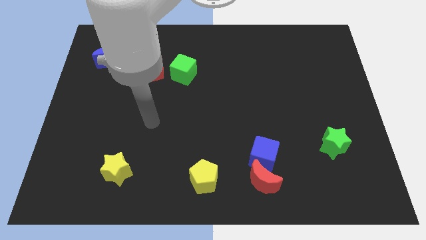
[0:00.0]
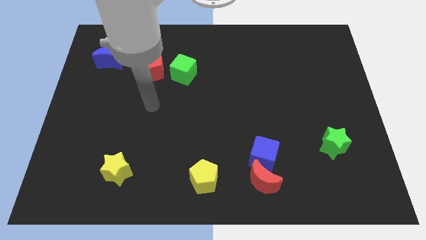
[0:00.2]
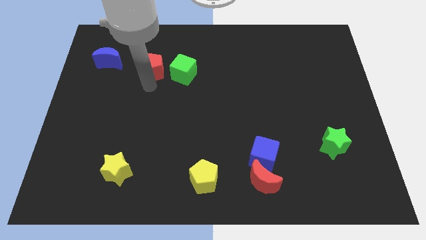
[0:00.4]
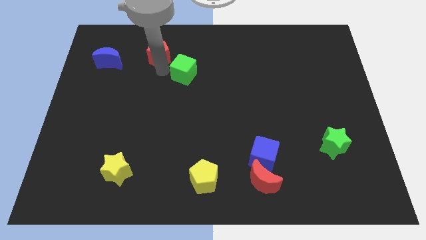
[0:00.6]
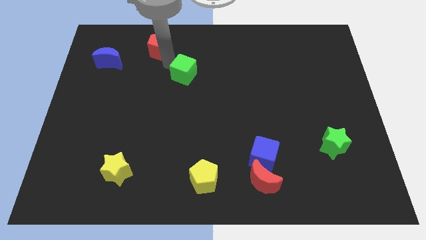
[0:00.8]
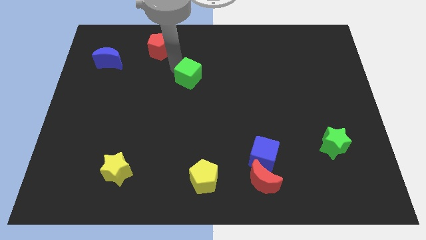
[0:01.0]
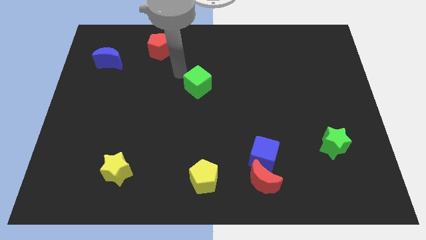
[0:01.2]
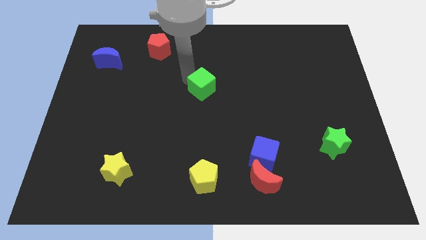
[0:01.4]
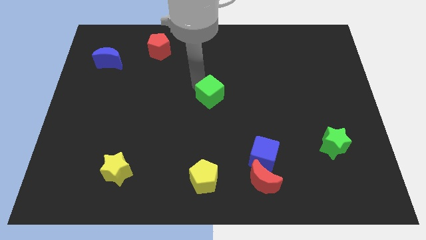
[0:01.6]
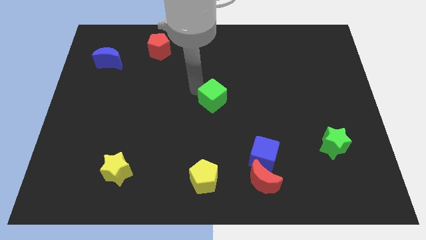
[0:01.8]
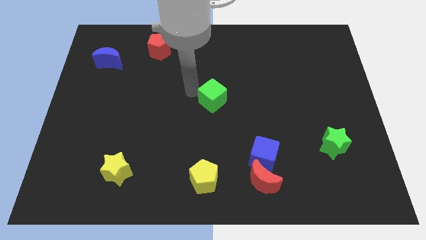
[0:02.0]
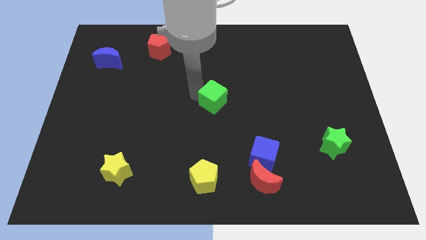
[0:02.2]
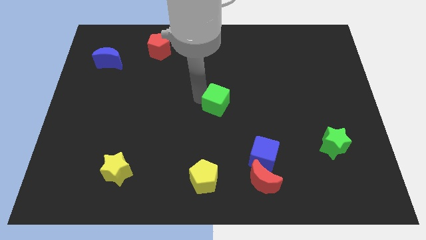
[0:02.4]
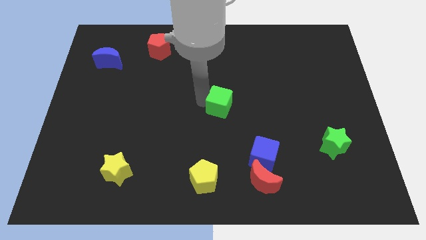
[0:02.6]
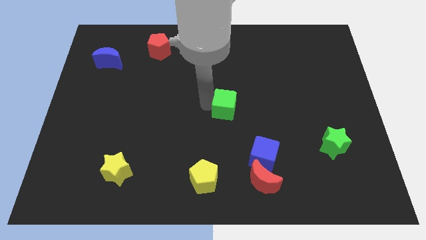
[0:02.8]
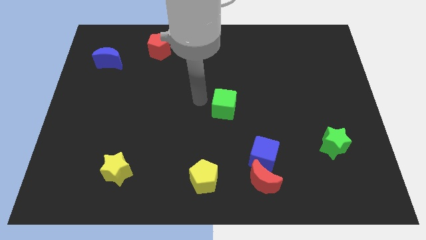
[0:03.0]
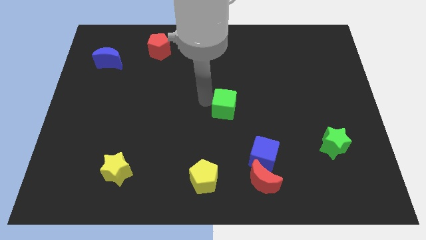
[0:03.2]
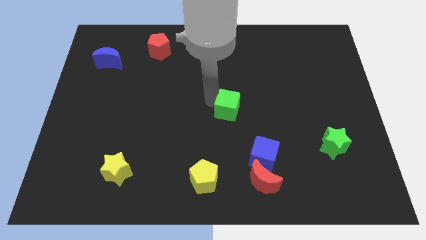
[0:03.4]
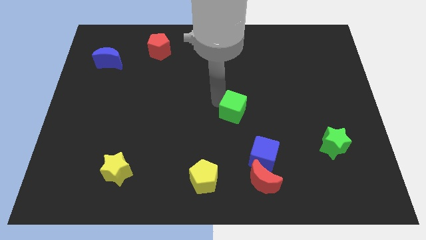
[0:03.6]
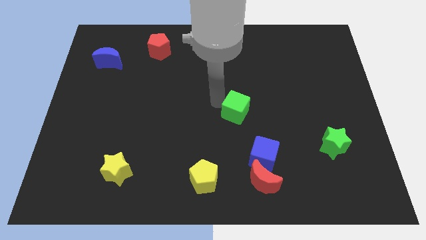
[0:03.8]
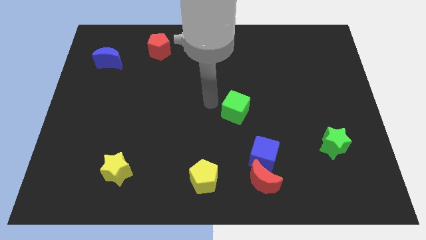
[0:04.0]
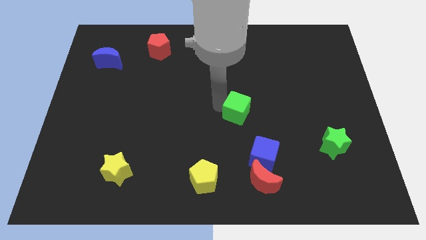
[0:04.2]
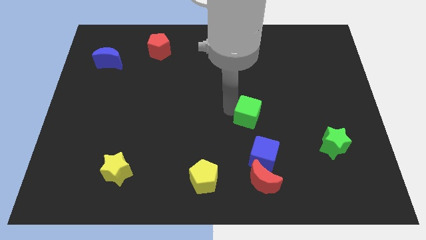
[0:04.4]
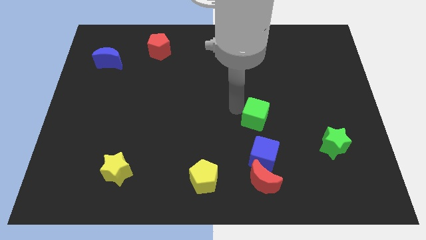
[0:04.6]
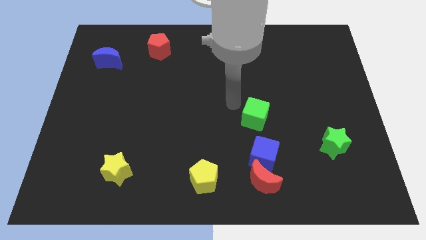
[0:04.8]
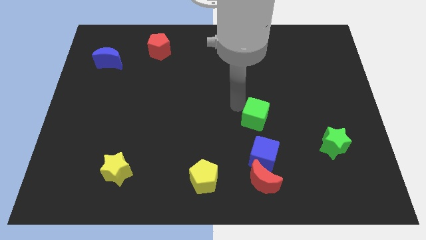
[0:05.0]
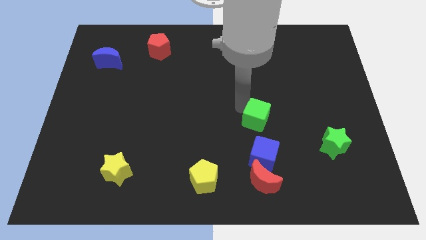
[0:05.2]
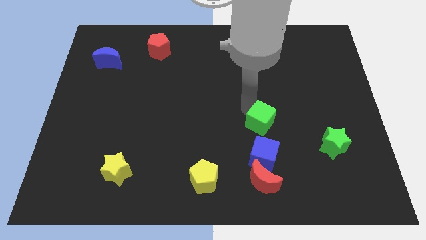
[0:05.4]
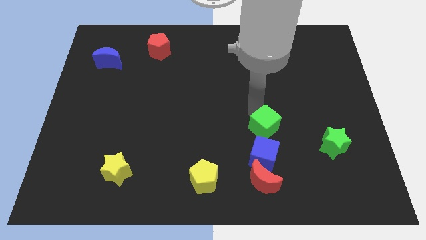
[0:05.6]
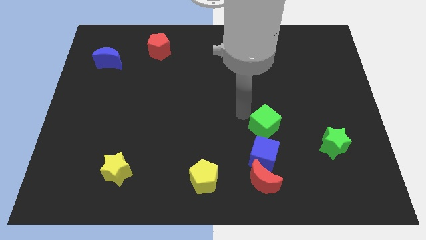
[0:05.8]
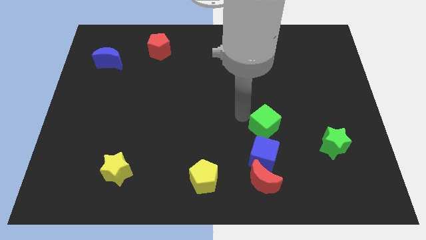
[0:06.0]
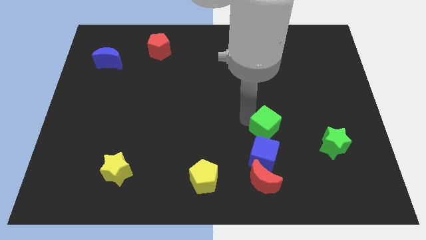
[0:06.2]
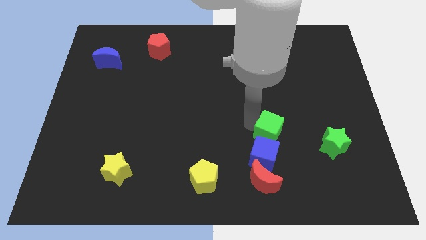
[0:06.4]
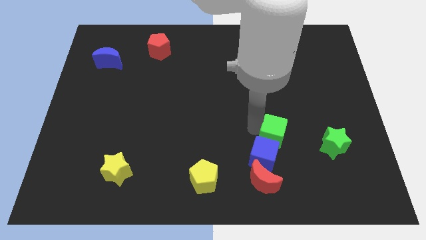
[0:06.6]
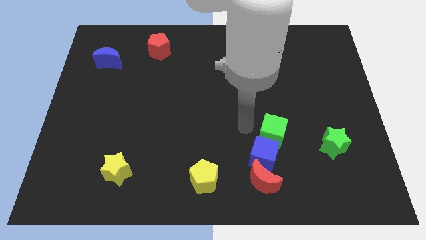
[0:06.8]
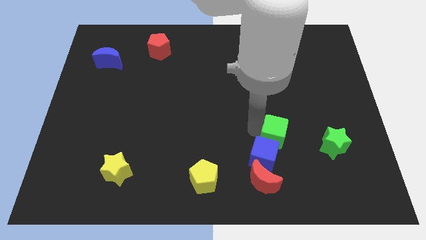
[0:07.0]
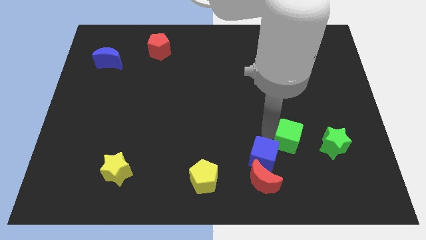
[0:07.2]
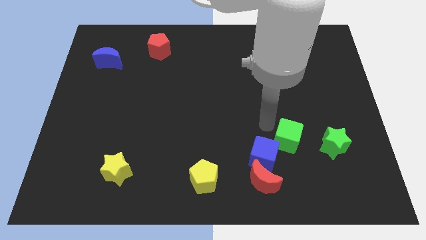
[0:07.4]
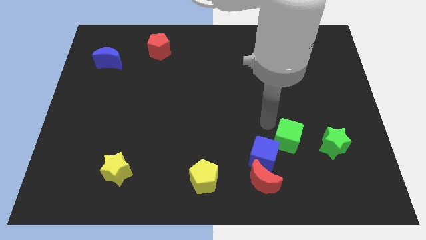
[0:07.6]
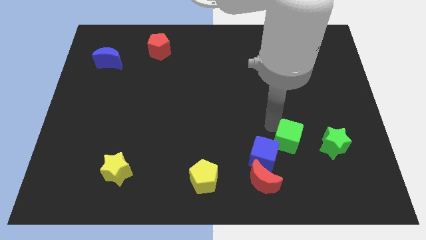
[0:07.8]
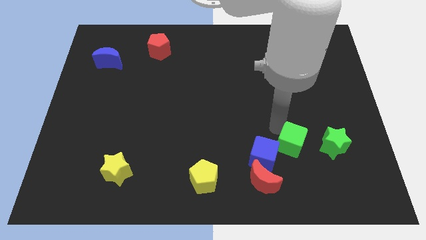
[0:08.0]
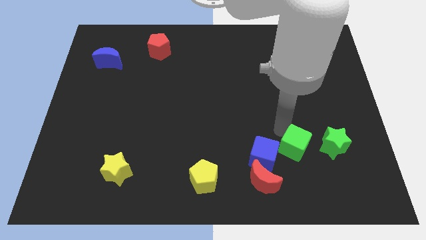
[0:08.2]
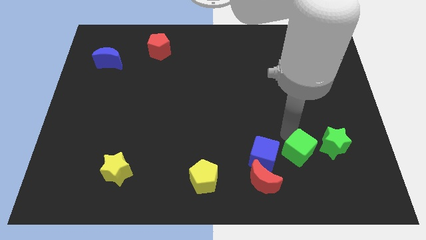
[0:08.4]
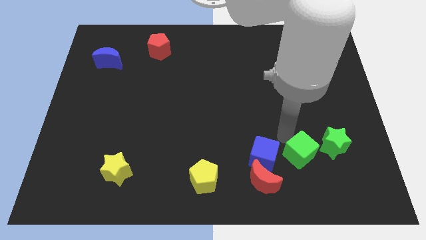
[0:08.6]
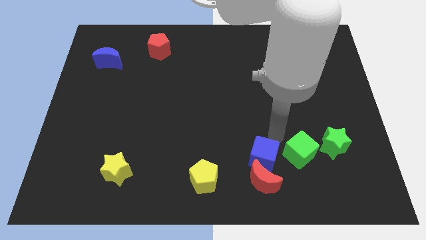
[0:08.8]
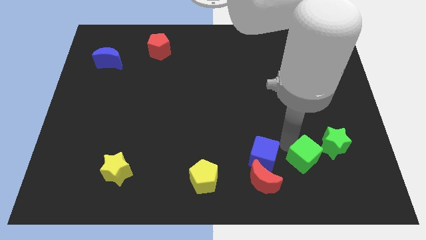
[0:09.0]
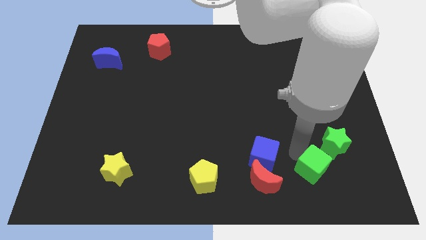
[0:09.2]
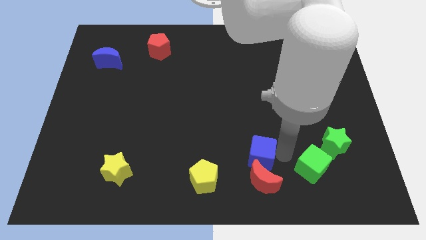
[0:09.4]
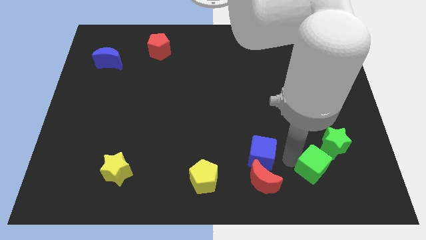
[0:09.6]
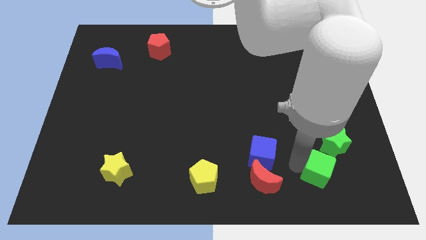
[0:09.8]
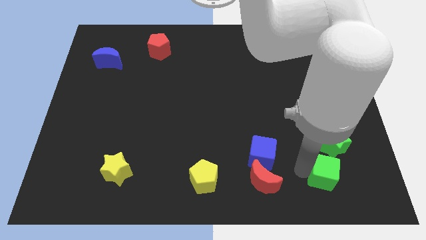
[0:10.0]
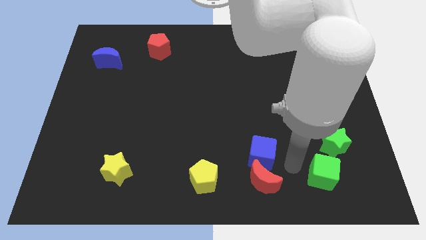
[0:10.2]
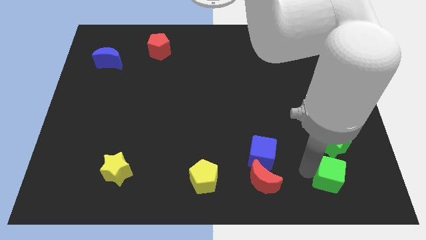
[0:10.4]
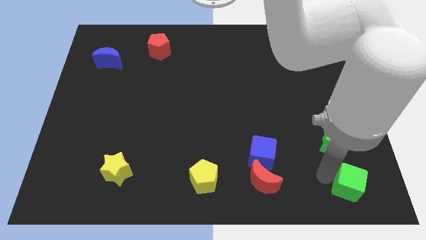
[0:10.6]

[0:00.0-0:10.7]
put the green cube to the bottom right corner
